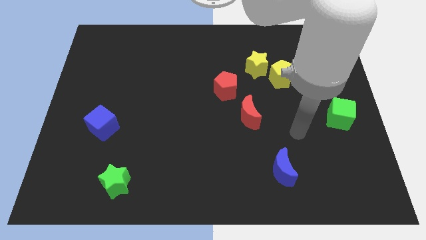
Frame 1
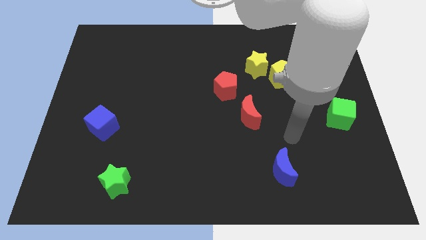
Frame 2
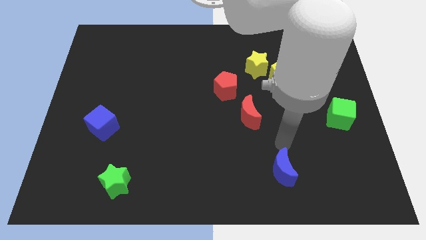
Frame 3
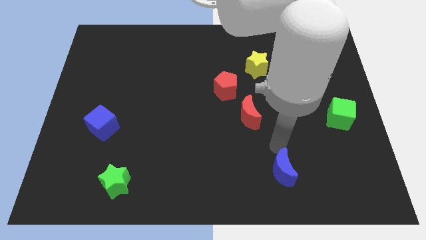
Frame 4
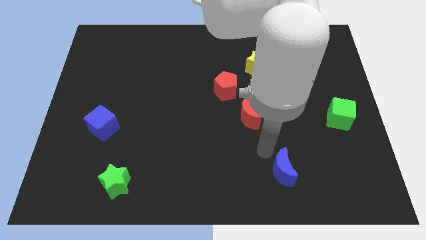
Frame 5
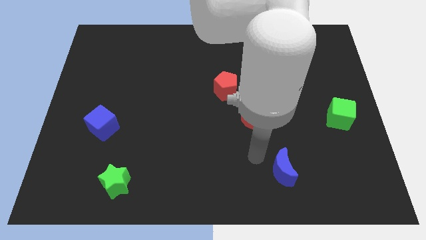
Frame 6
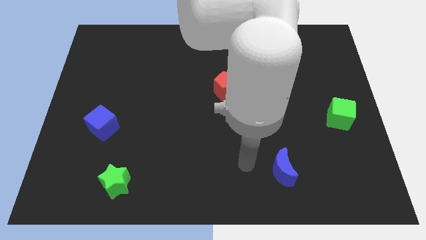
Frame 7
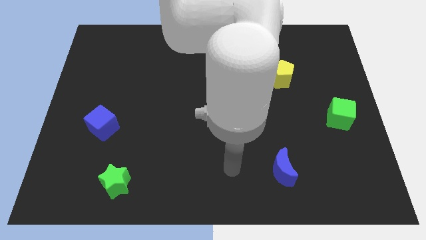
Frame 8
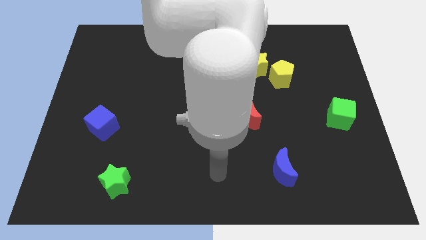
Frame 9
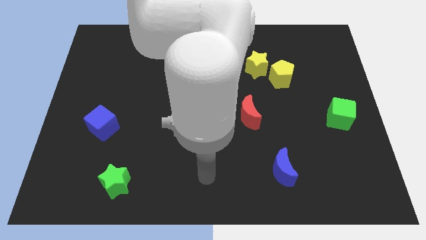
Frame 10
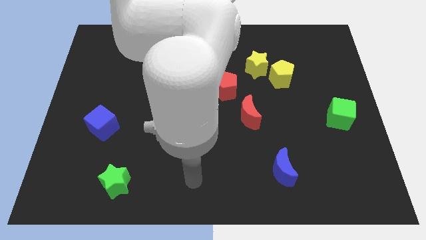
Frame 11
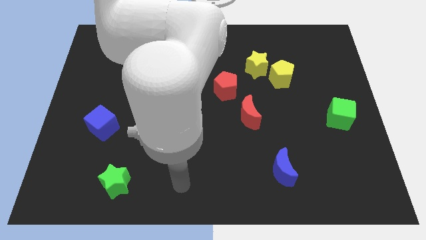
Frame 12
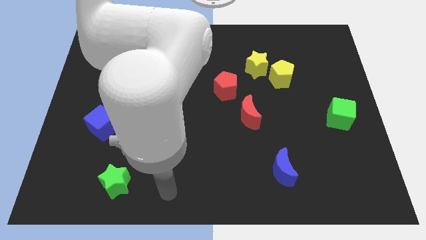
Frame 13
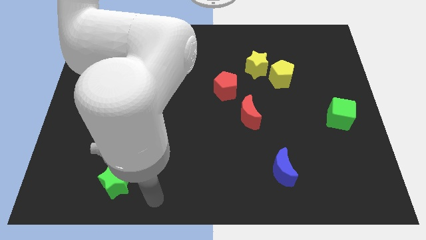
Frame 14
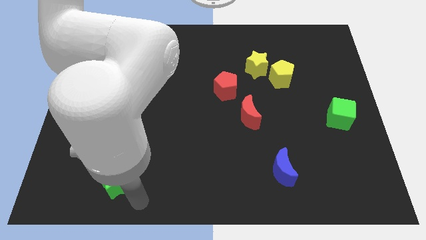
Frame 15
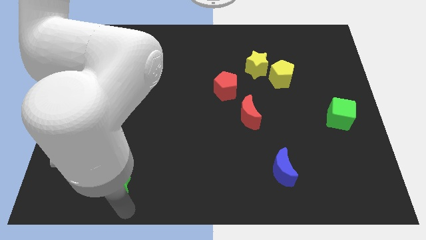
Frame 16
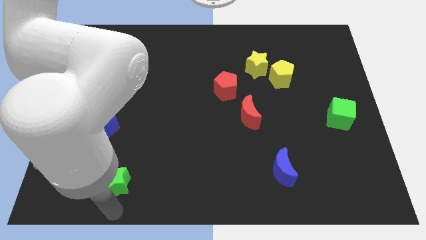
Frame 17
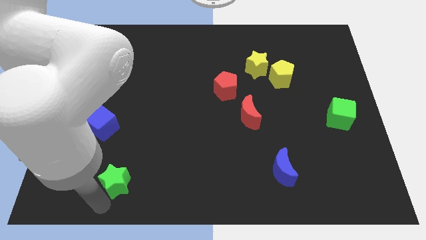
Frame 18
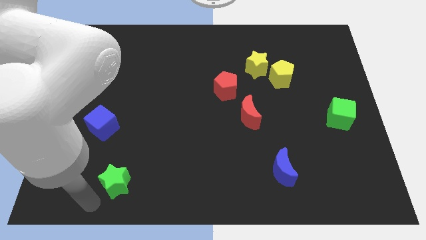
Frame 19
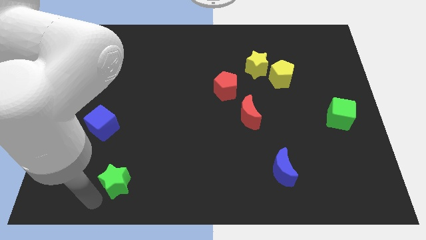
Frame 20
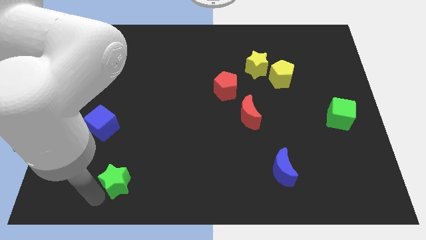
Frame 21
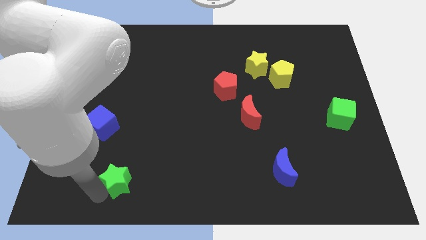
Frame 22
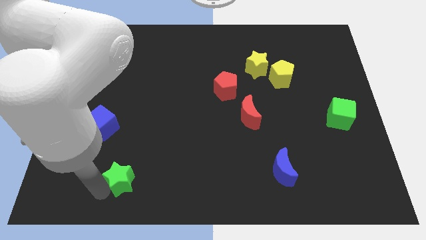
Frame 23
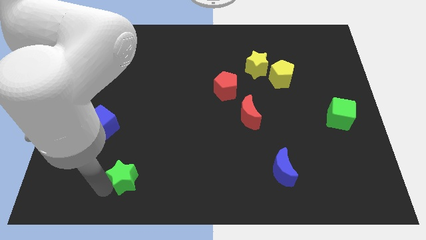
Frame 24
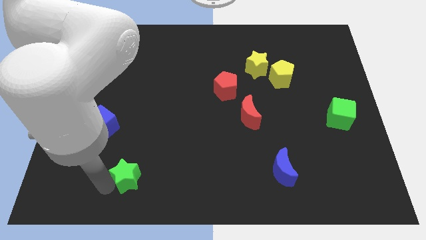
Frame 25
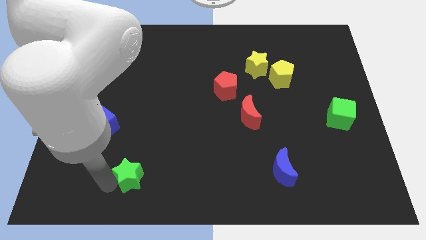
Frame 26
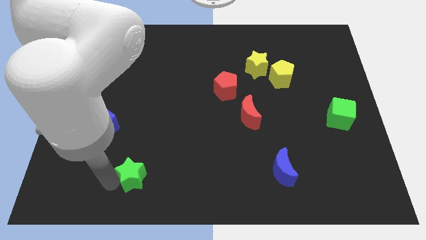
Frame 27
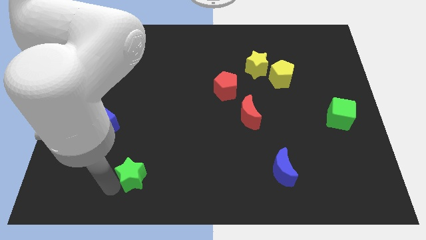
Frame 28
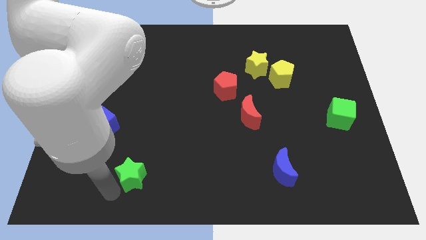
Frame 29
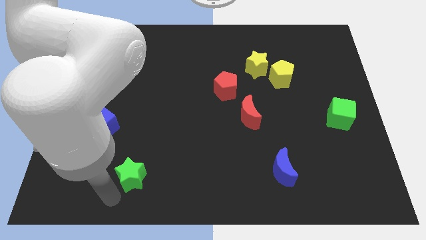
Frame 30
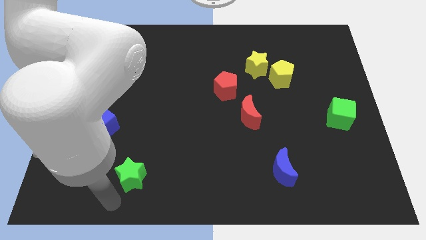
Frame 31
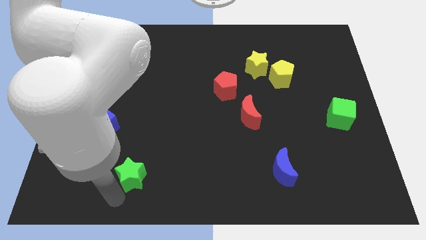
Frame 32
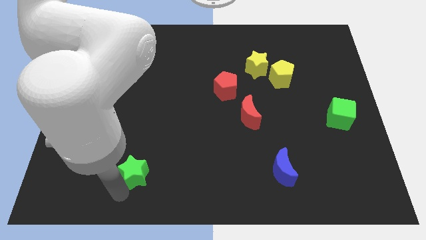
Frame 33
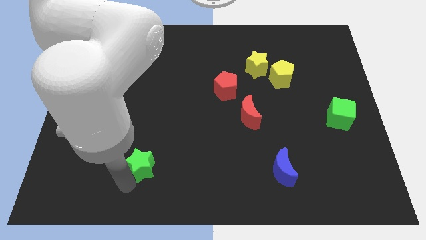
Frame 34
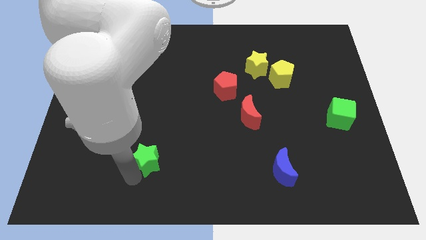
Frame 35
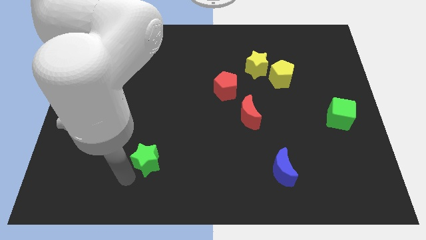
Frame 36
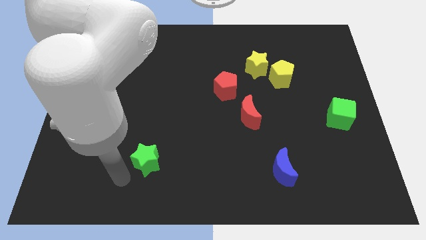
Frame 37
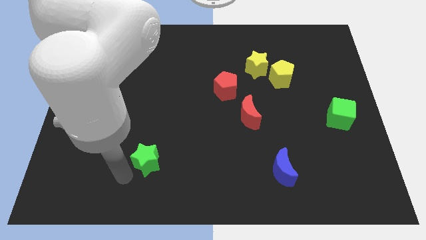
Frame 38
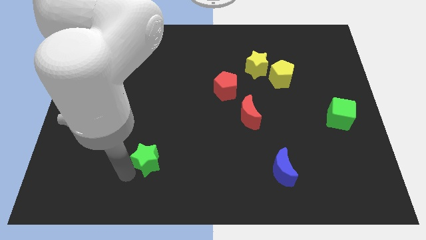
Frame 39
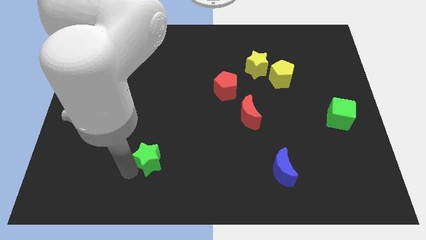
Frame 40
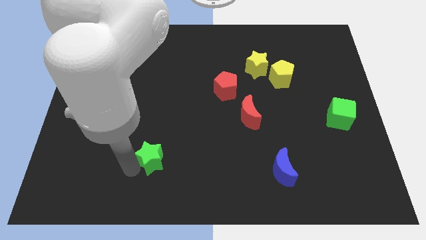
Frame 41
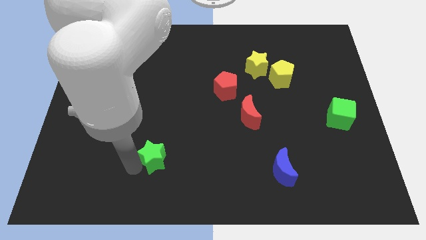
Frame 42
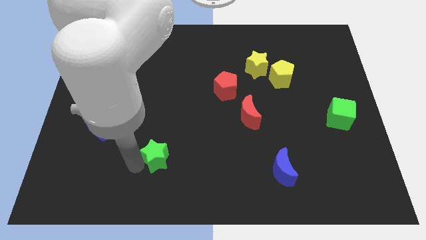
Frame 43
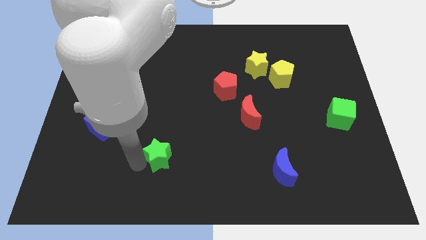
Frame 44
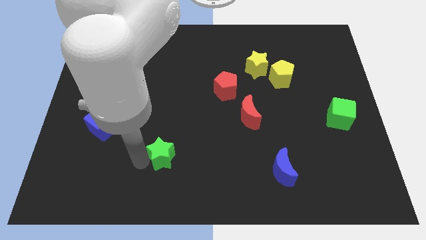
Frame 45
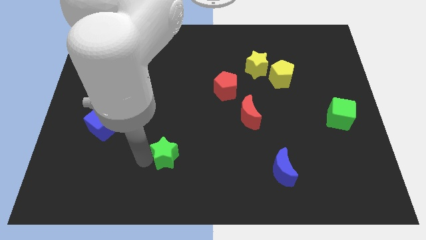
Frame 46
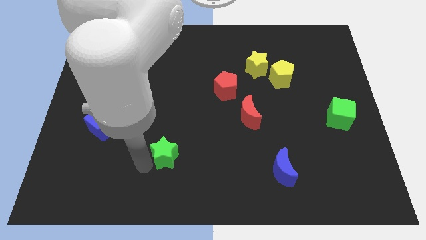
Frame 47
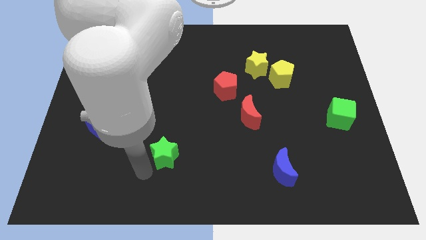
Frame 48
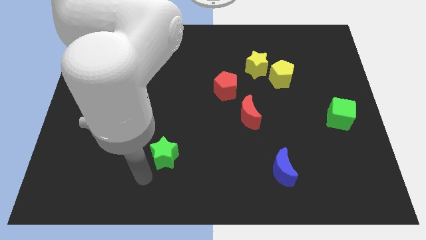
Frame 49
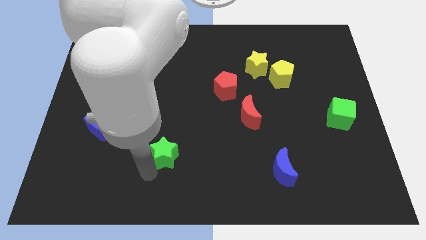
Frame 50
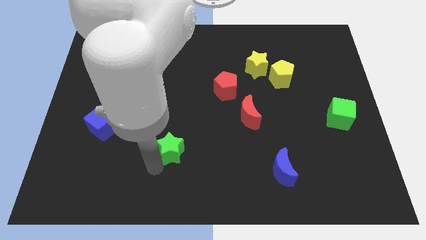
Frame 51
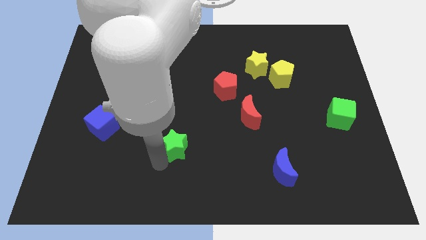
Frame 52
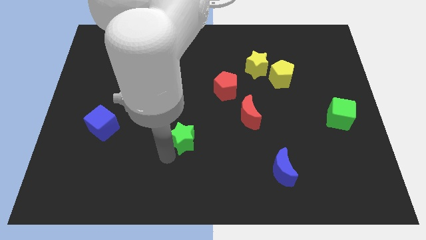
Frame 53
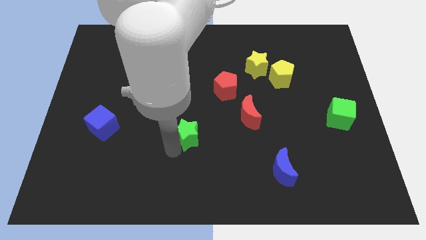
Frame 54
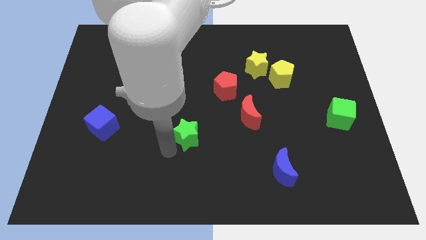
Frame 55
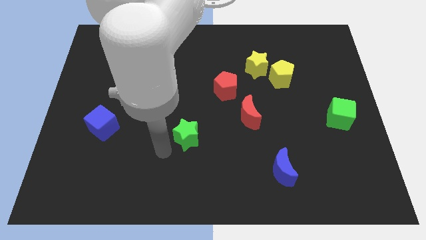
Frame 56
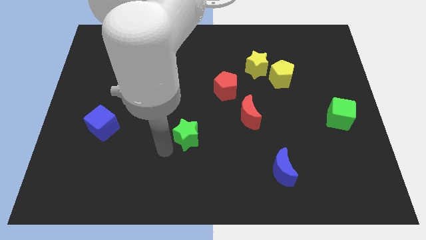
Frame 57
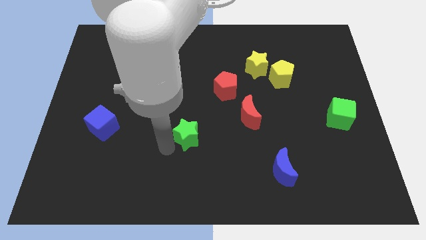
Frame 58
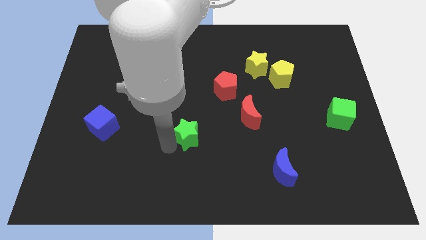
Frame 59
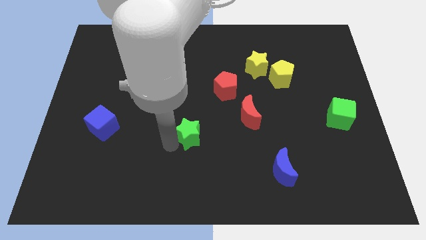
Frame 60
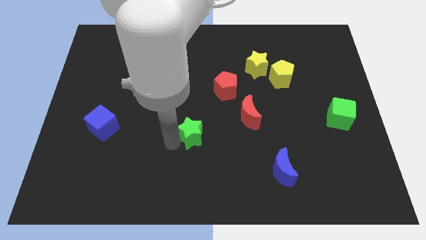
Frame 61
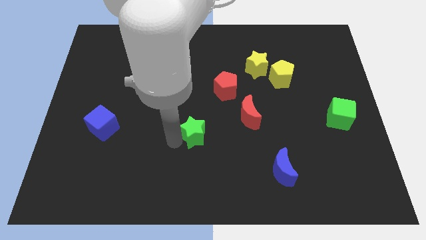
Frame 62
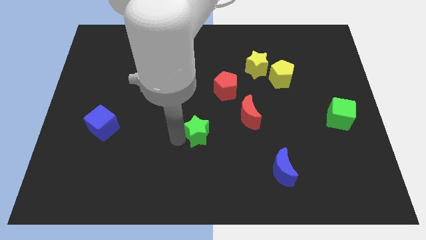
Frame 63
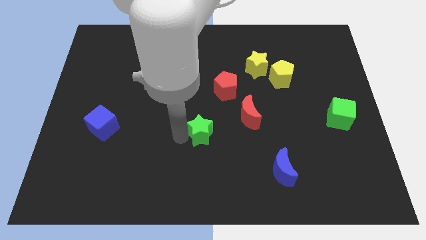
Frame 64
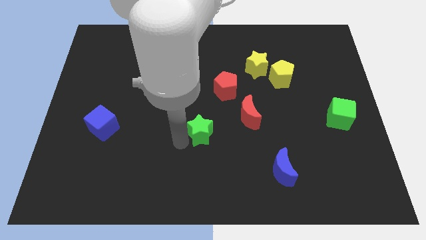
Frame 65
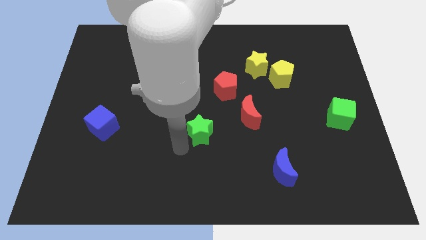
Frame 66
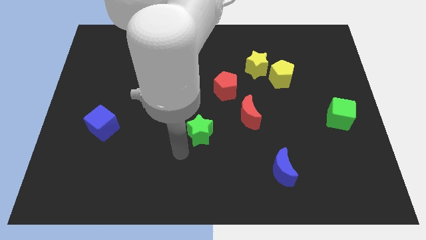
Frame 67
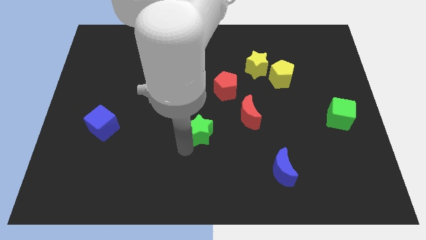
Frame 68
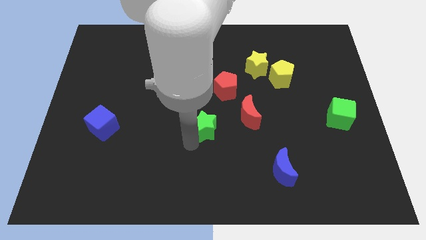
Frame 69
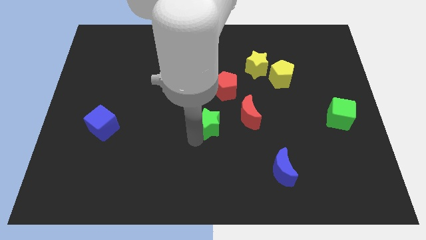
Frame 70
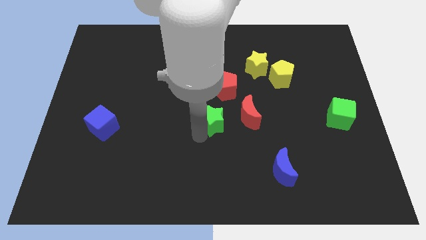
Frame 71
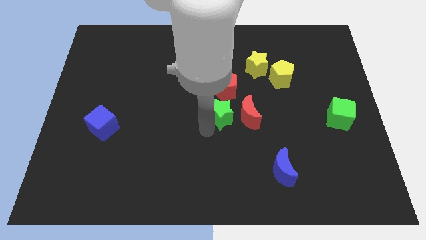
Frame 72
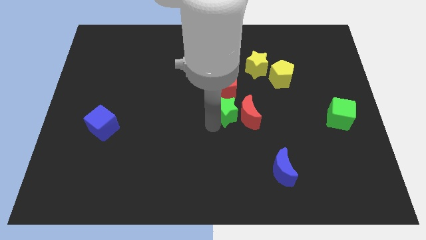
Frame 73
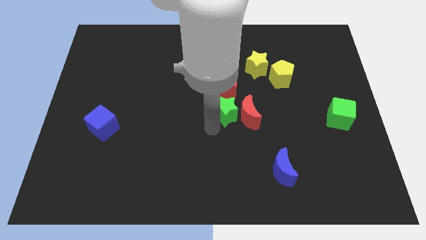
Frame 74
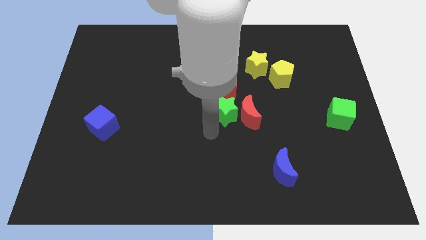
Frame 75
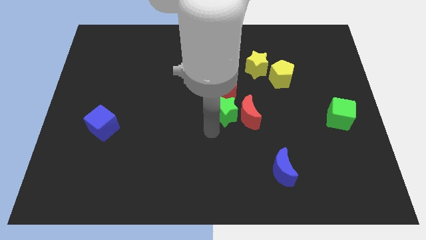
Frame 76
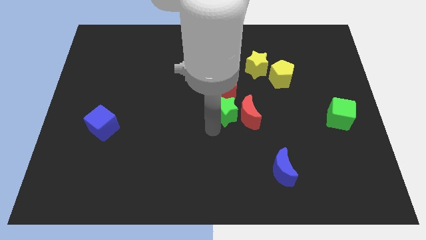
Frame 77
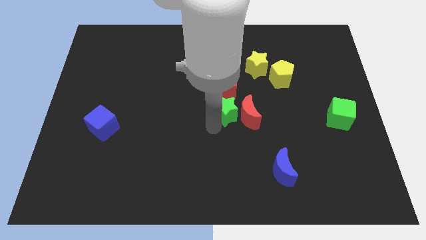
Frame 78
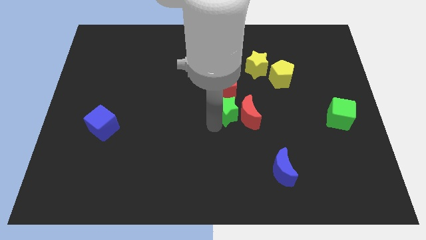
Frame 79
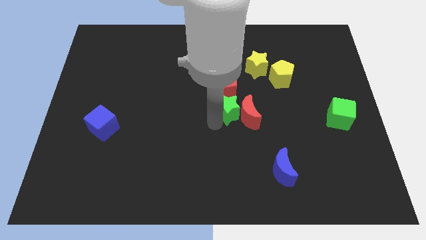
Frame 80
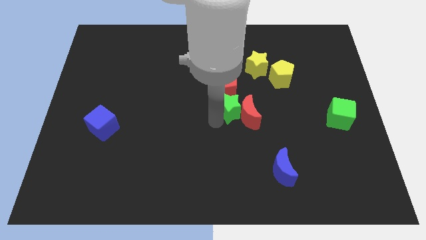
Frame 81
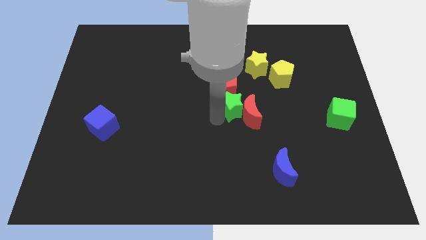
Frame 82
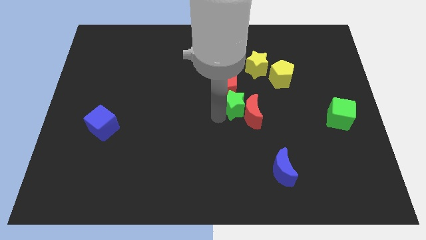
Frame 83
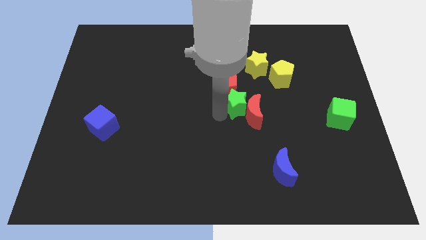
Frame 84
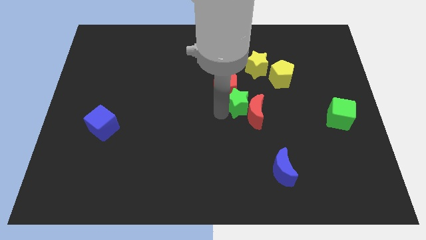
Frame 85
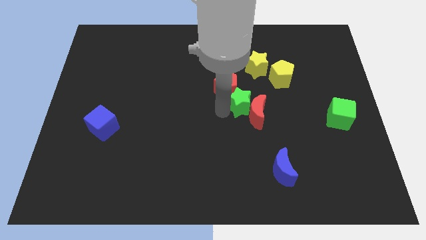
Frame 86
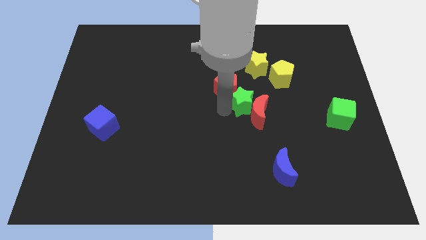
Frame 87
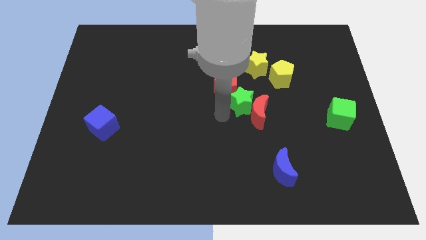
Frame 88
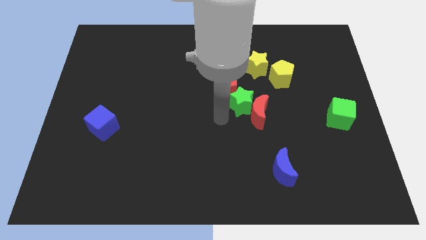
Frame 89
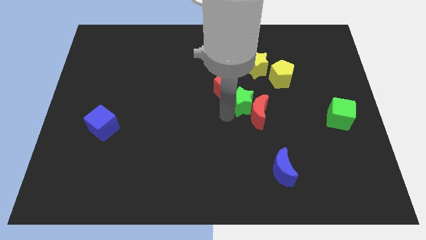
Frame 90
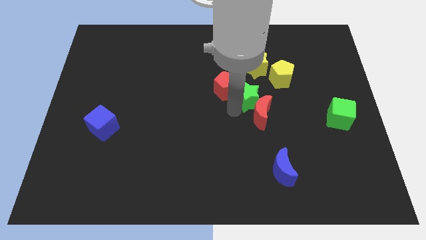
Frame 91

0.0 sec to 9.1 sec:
slide the green star right of the red pentagon
